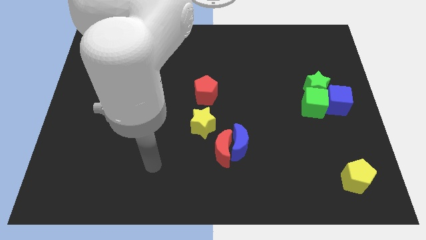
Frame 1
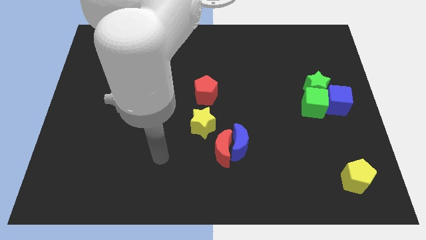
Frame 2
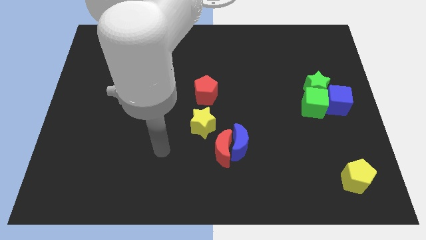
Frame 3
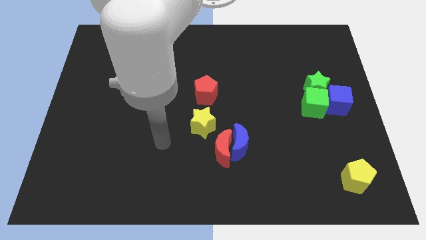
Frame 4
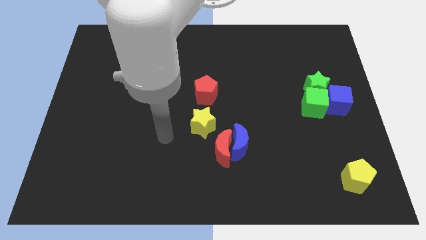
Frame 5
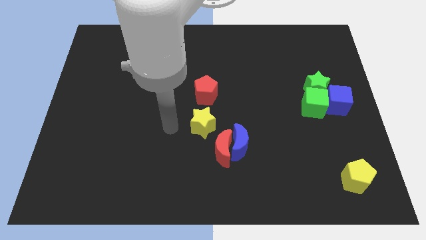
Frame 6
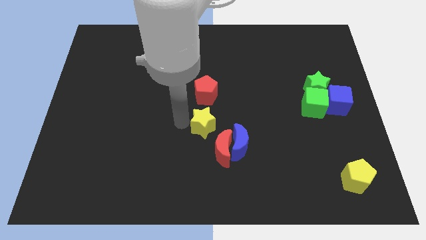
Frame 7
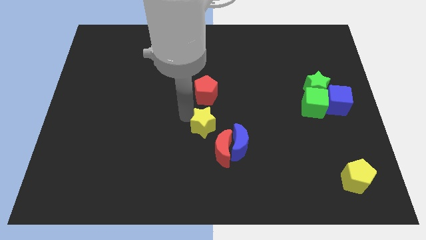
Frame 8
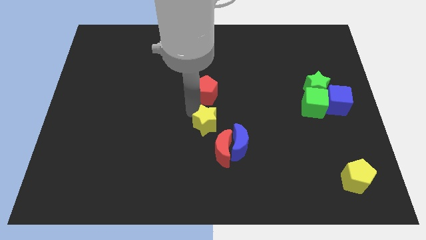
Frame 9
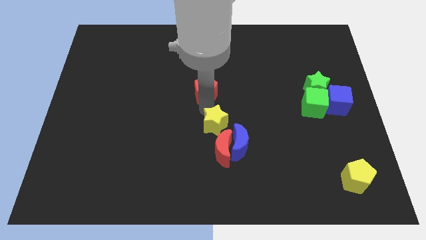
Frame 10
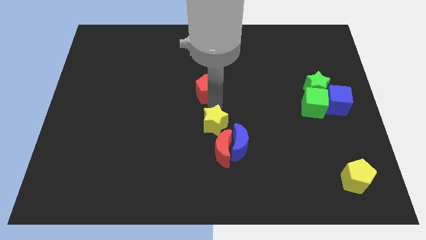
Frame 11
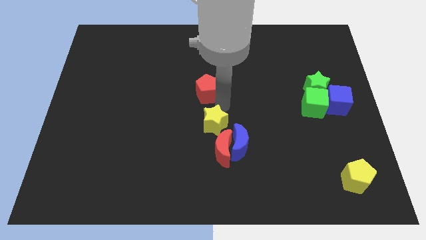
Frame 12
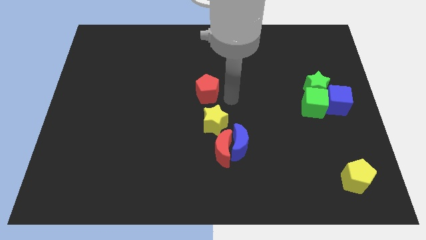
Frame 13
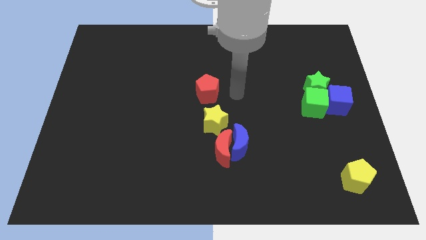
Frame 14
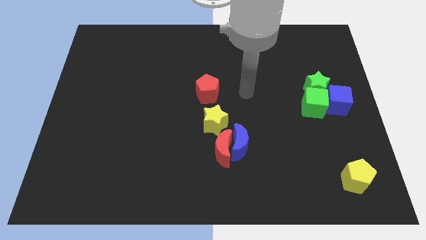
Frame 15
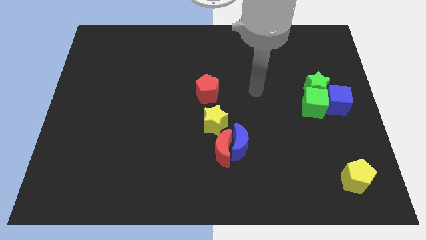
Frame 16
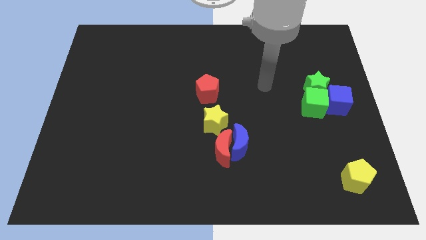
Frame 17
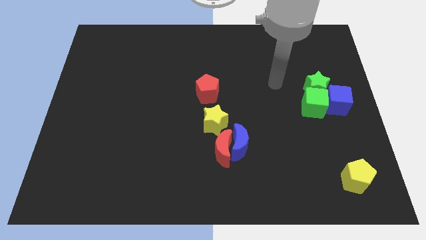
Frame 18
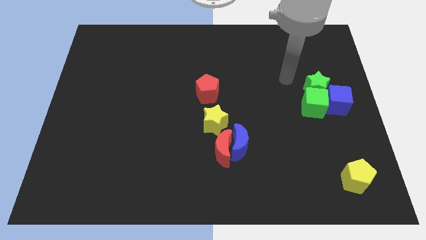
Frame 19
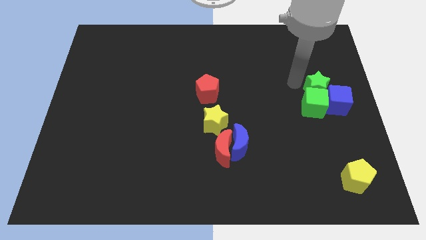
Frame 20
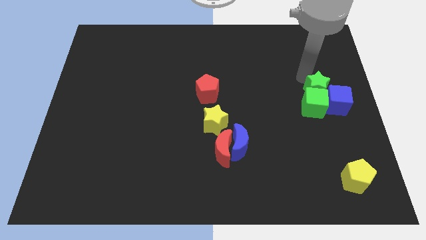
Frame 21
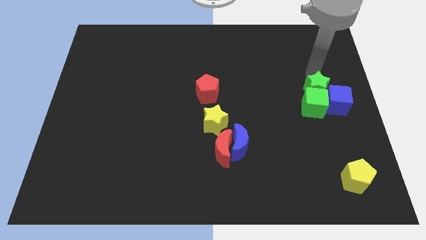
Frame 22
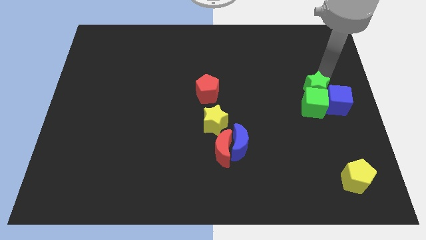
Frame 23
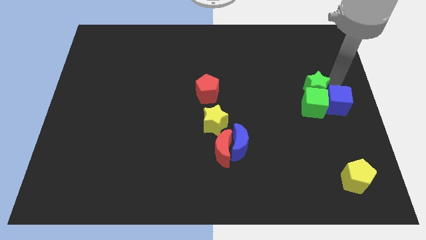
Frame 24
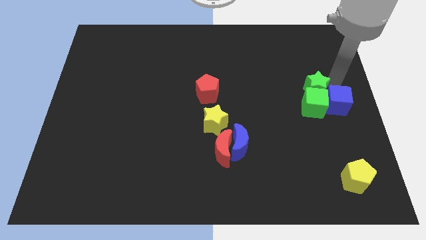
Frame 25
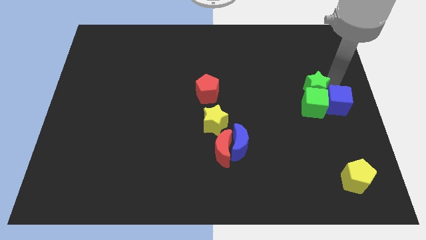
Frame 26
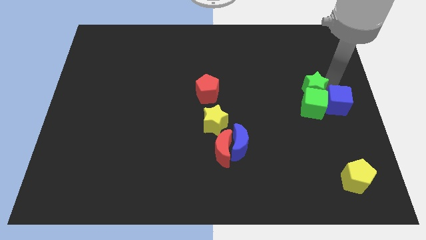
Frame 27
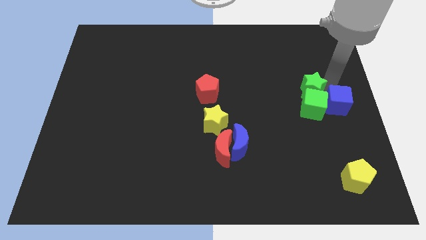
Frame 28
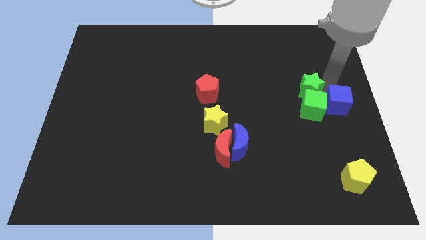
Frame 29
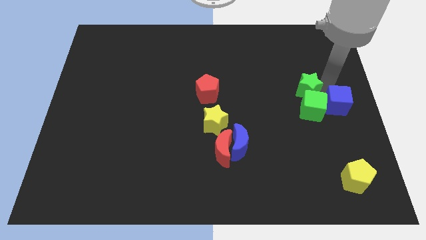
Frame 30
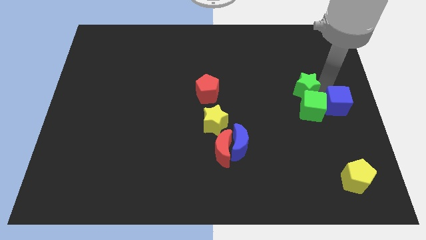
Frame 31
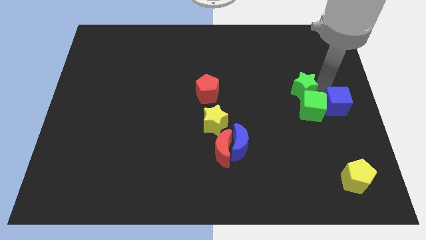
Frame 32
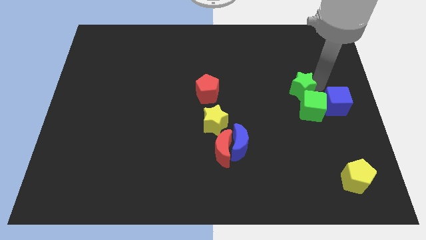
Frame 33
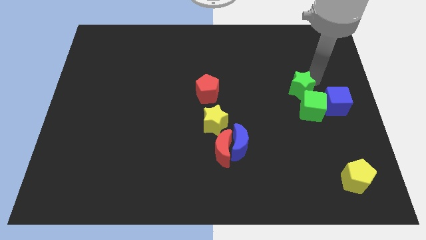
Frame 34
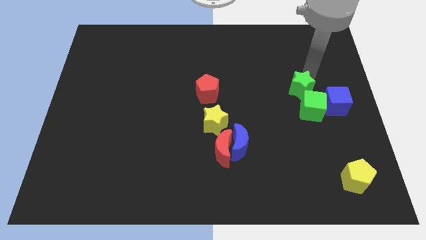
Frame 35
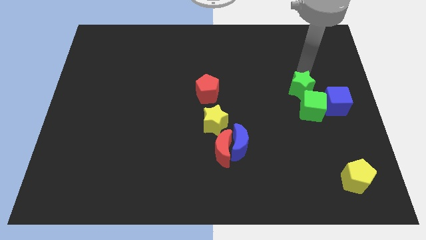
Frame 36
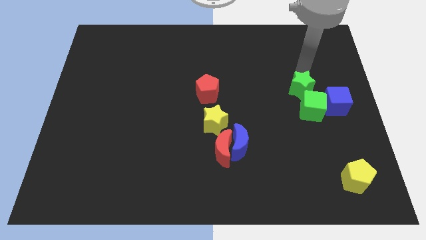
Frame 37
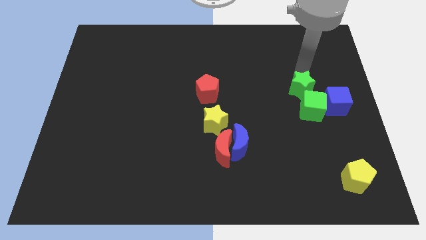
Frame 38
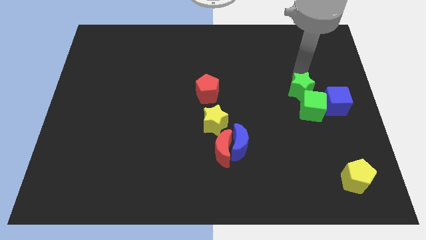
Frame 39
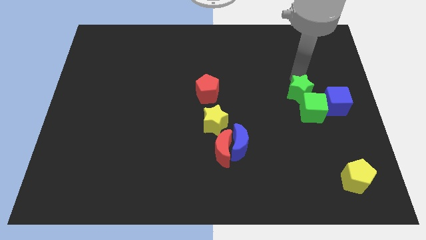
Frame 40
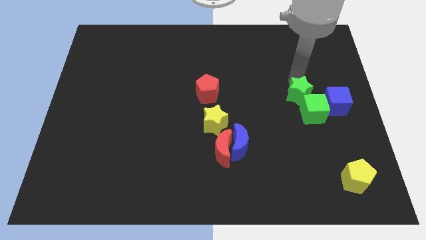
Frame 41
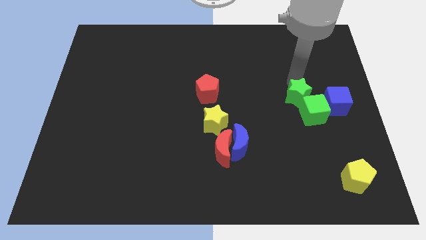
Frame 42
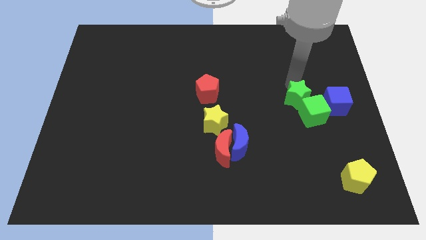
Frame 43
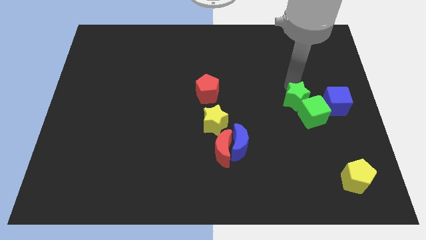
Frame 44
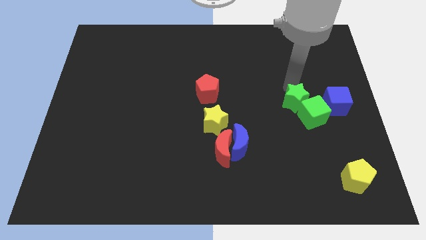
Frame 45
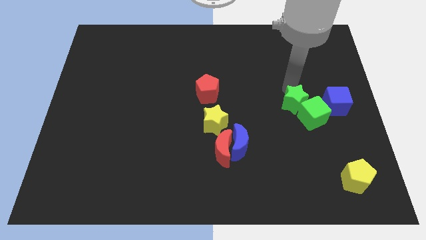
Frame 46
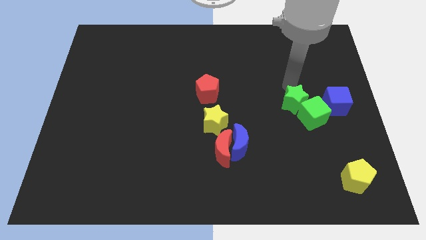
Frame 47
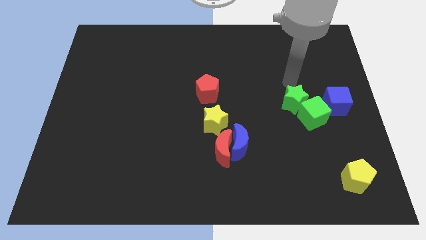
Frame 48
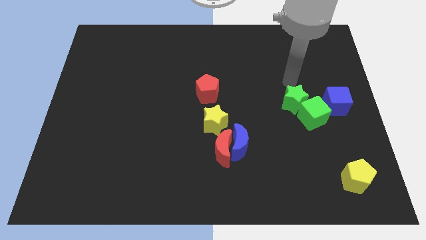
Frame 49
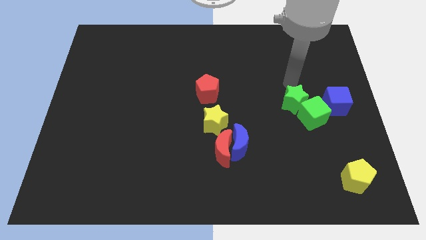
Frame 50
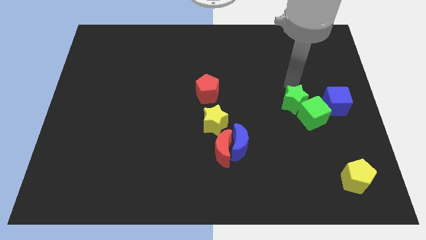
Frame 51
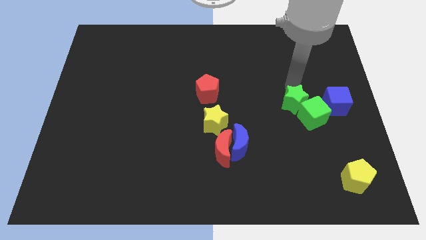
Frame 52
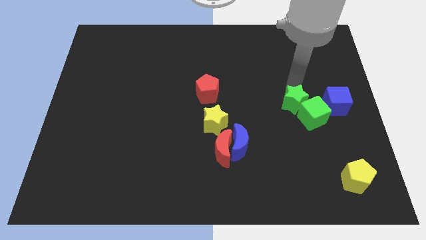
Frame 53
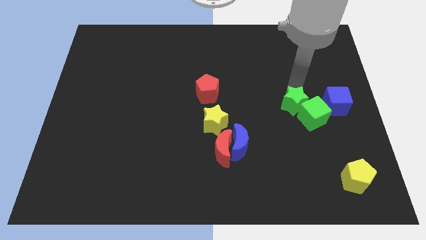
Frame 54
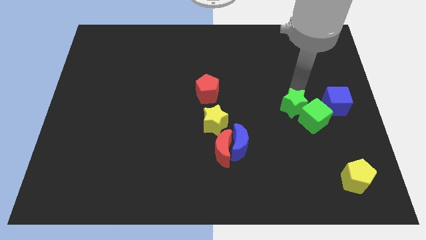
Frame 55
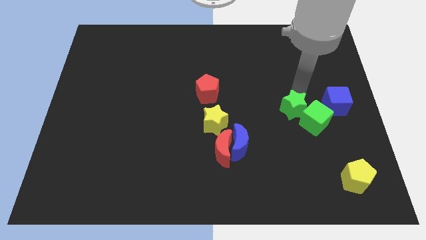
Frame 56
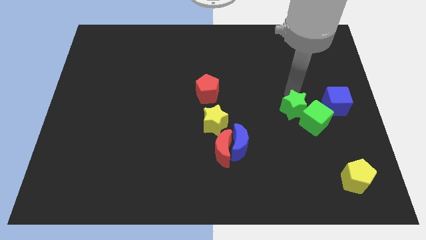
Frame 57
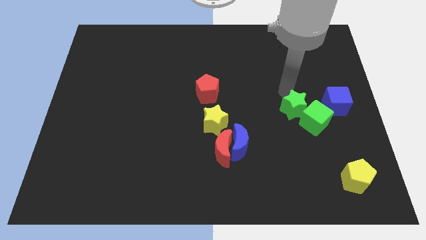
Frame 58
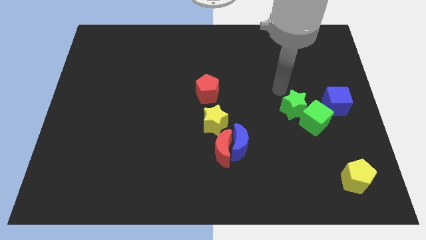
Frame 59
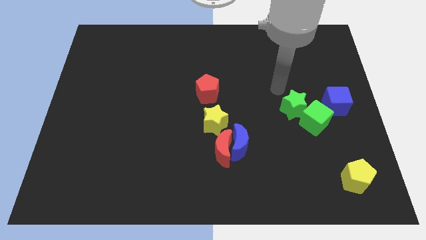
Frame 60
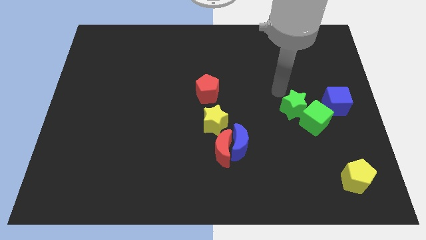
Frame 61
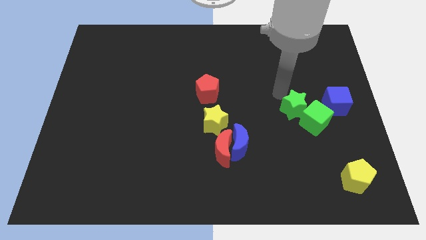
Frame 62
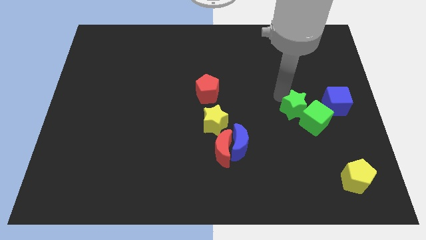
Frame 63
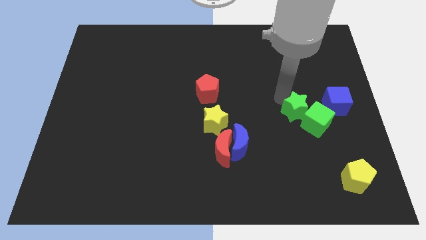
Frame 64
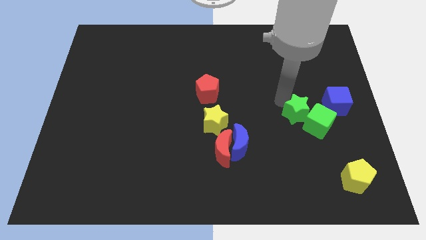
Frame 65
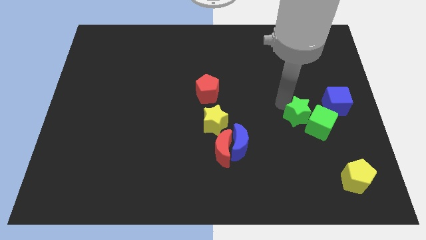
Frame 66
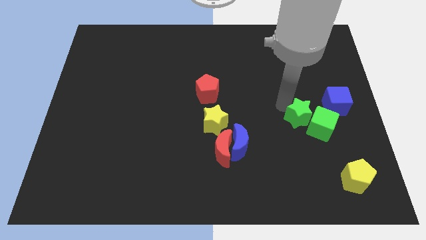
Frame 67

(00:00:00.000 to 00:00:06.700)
slightly push the green star down

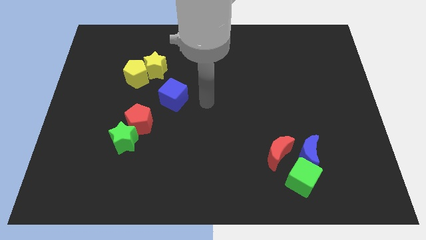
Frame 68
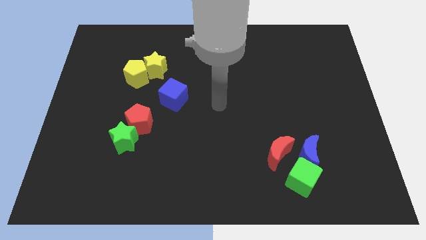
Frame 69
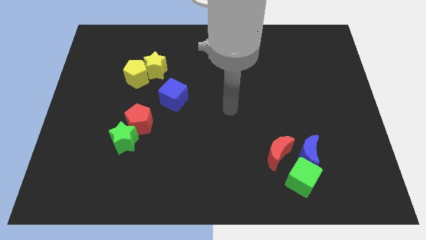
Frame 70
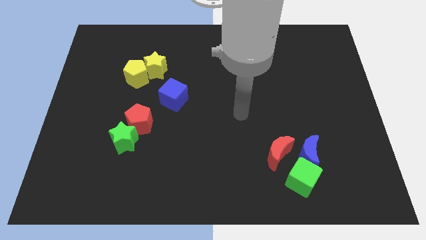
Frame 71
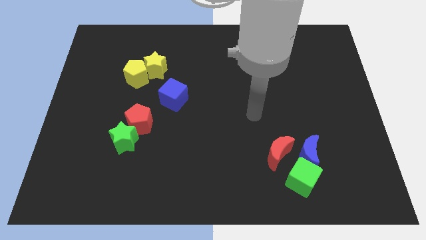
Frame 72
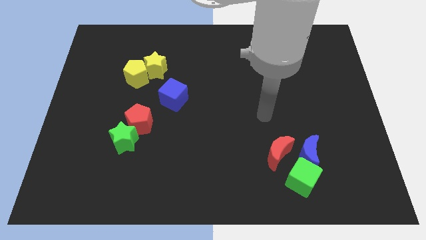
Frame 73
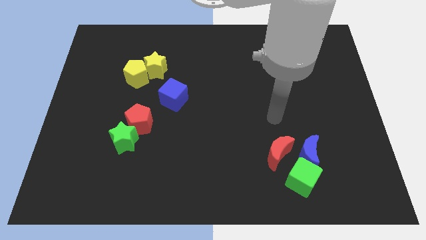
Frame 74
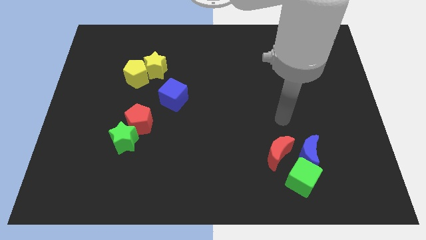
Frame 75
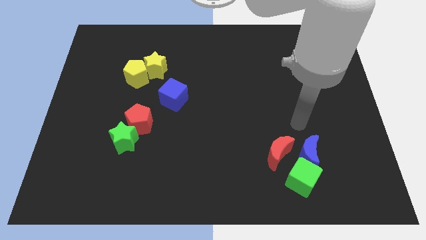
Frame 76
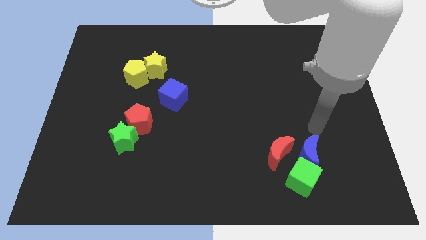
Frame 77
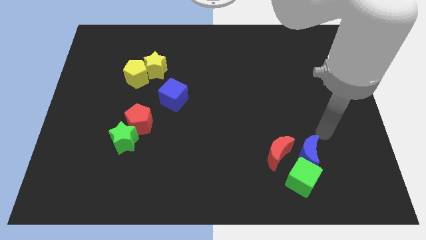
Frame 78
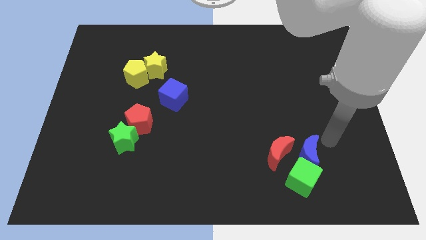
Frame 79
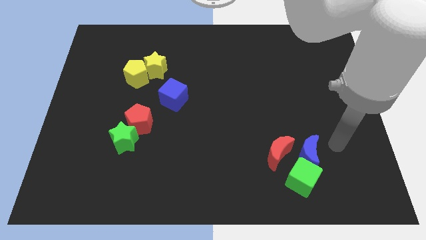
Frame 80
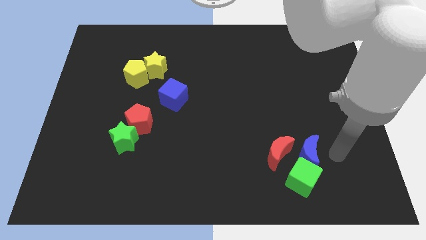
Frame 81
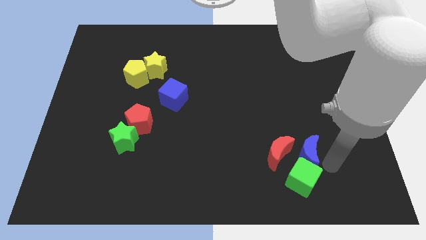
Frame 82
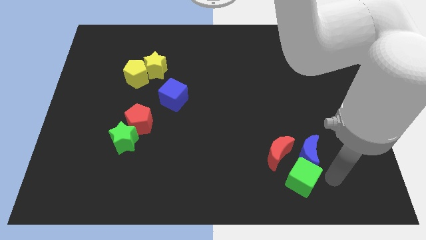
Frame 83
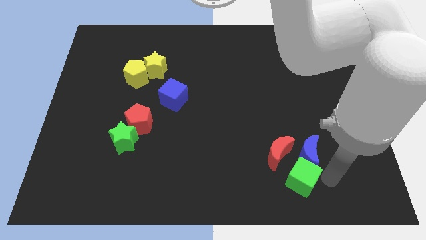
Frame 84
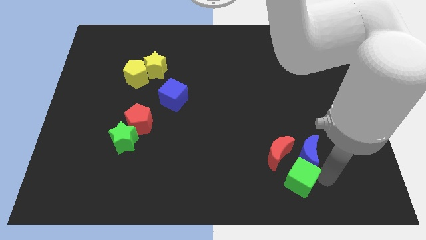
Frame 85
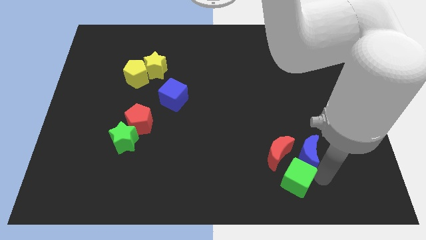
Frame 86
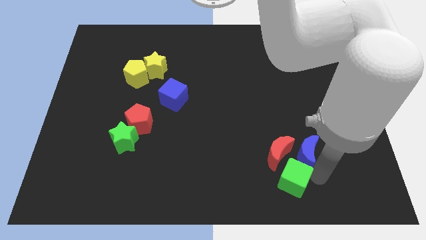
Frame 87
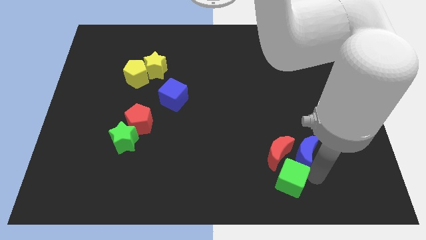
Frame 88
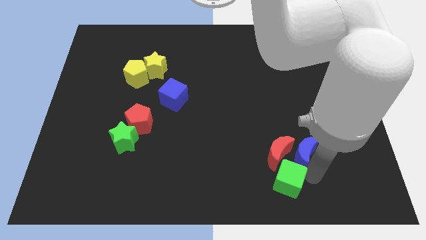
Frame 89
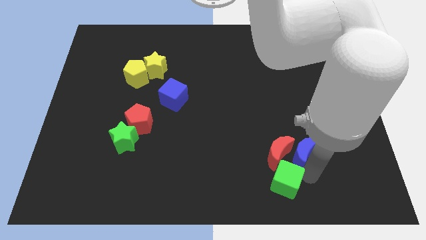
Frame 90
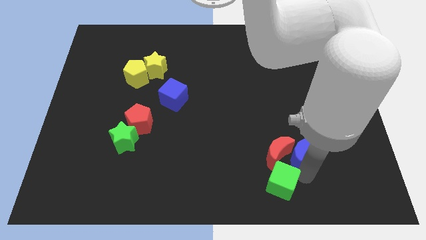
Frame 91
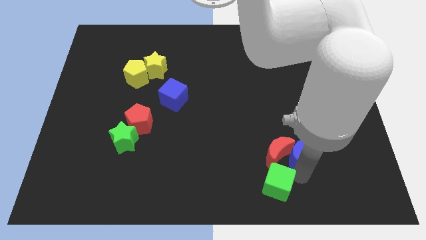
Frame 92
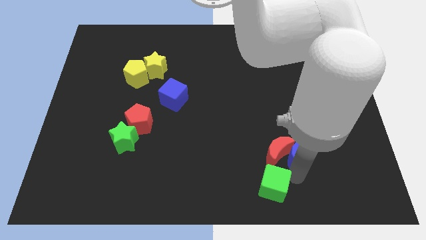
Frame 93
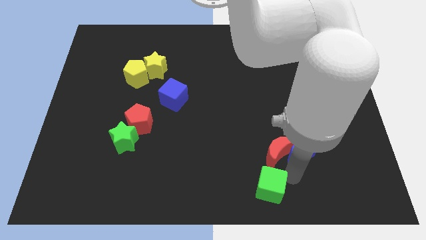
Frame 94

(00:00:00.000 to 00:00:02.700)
slightly slide the green cube to the left
